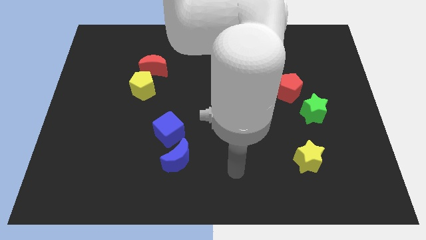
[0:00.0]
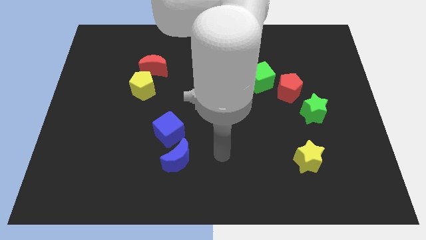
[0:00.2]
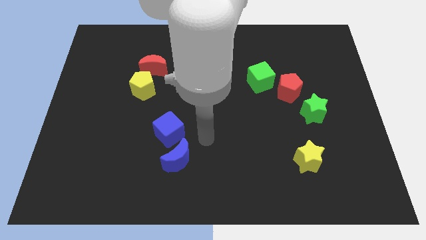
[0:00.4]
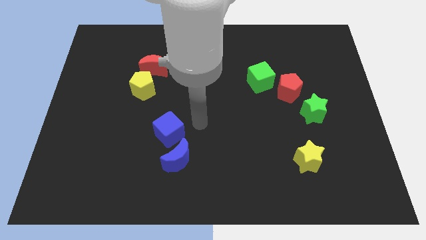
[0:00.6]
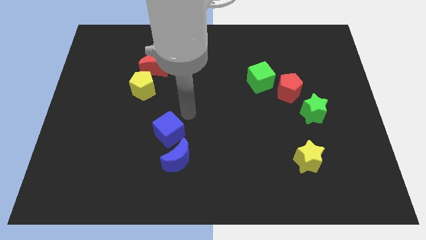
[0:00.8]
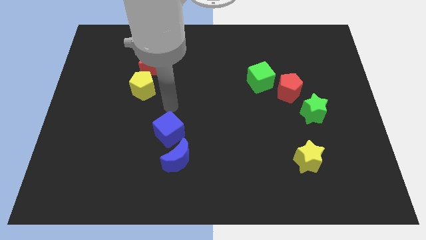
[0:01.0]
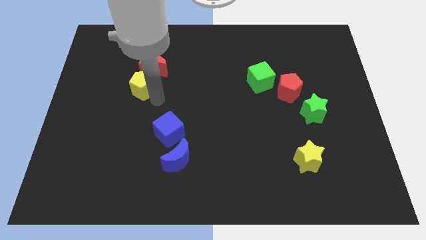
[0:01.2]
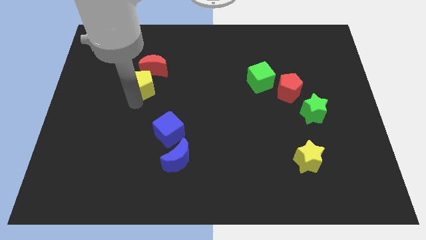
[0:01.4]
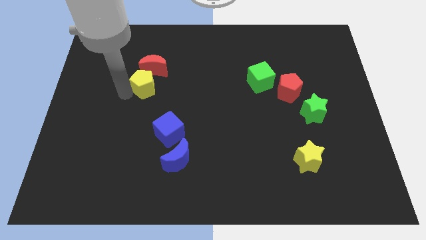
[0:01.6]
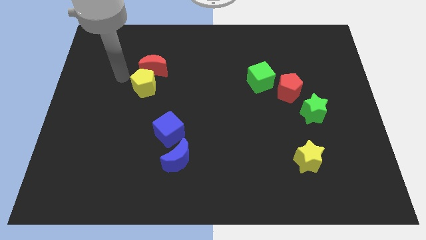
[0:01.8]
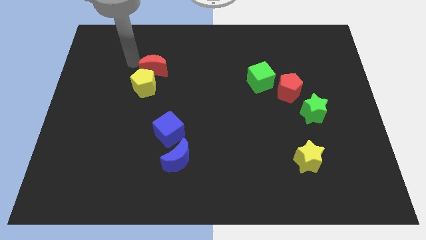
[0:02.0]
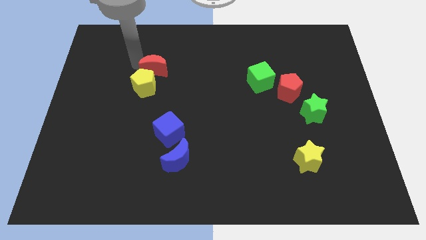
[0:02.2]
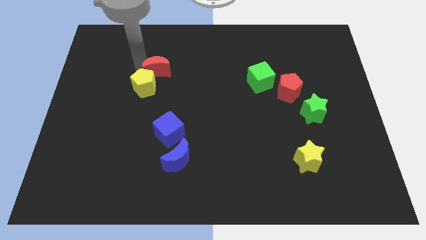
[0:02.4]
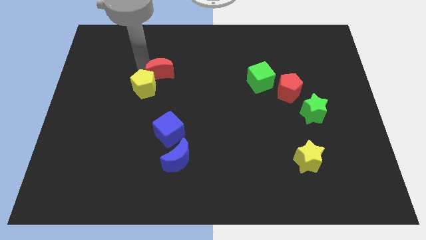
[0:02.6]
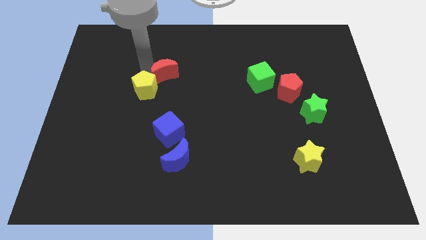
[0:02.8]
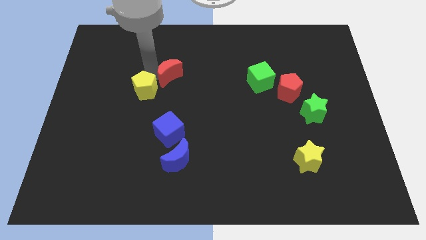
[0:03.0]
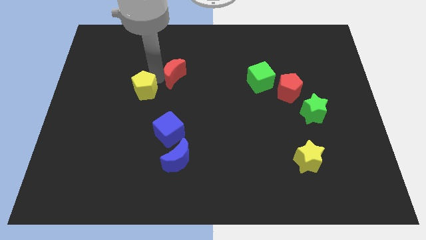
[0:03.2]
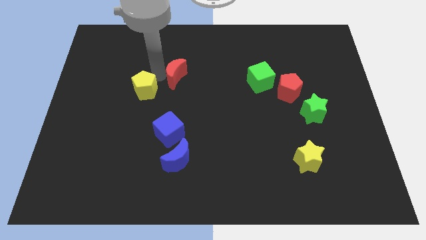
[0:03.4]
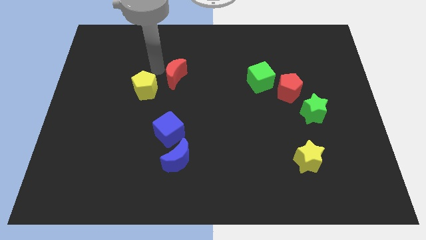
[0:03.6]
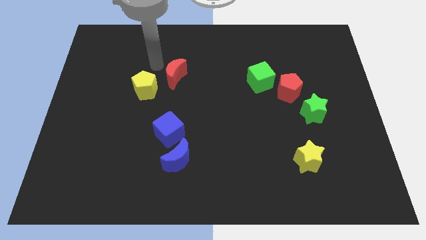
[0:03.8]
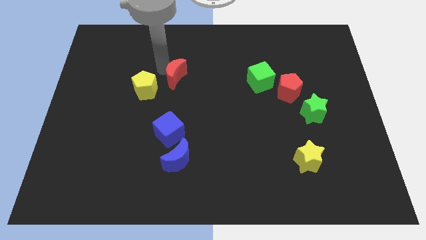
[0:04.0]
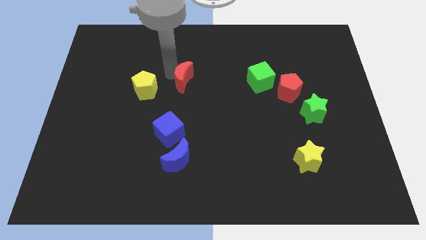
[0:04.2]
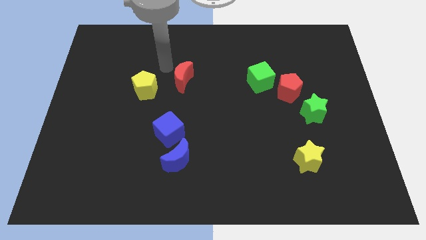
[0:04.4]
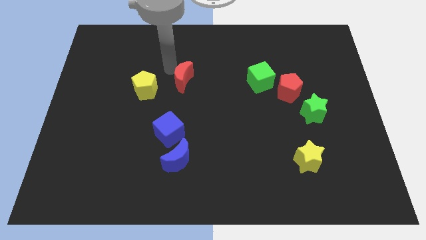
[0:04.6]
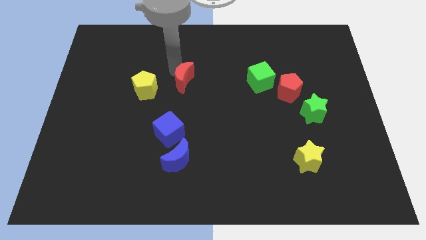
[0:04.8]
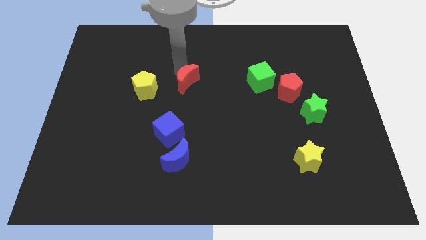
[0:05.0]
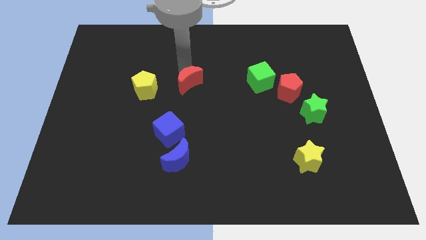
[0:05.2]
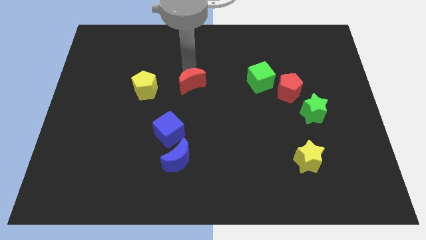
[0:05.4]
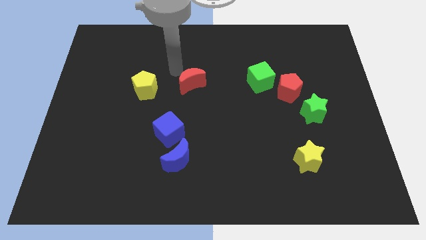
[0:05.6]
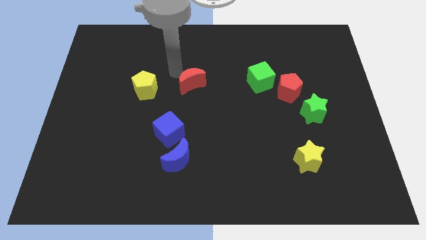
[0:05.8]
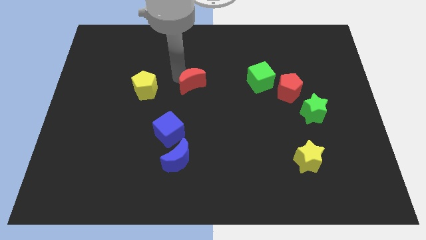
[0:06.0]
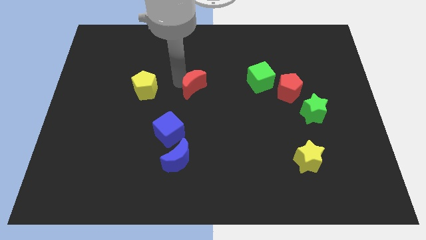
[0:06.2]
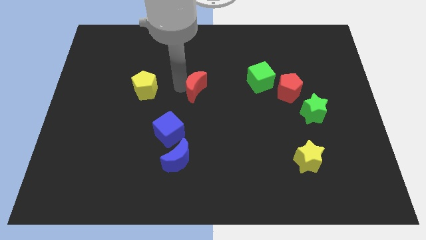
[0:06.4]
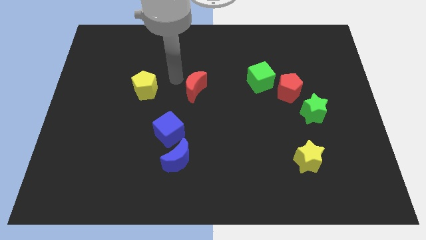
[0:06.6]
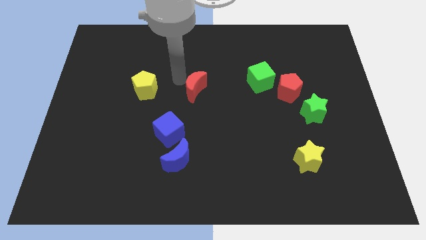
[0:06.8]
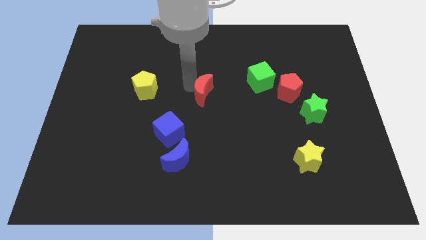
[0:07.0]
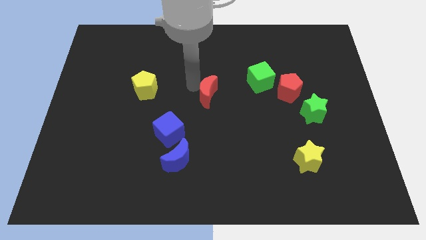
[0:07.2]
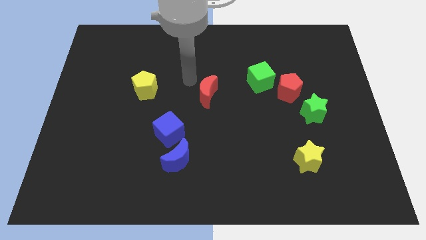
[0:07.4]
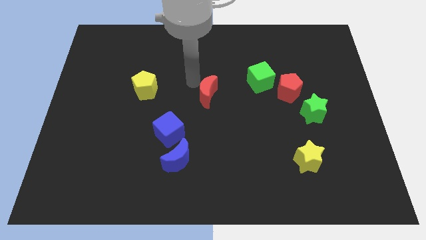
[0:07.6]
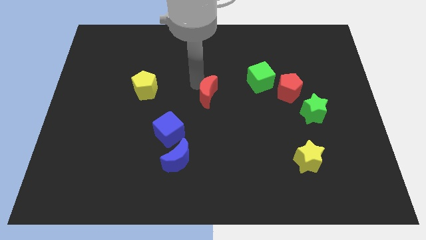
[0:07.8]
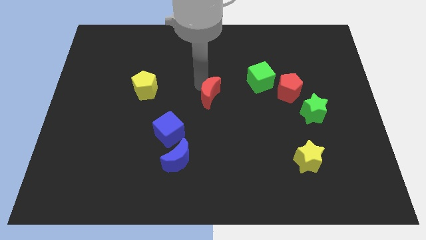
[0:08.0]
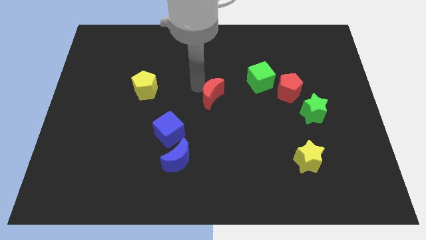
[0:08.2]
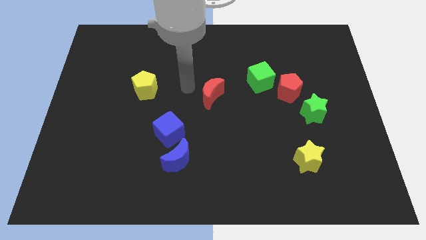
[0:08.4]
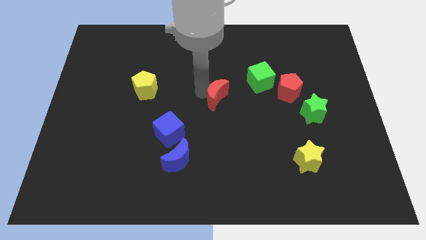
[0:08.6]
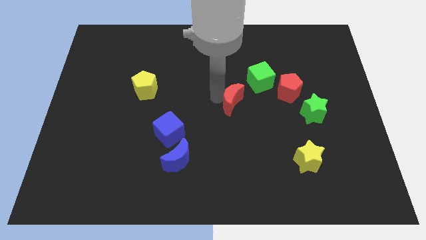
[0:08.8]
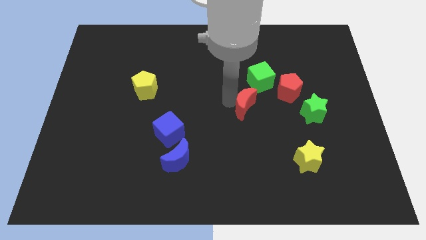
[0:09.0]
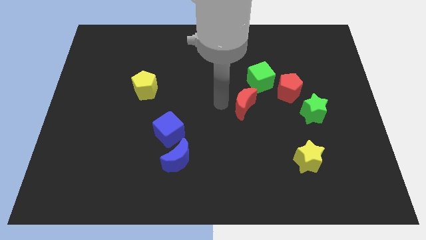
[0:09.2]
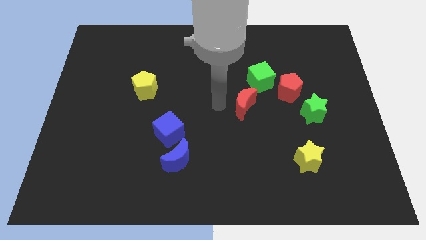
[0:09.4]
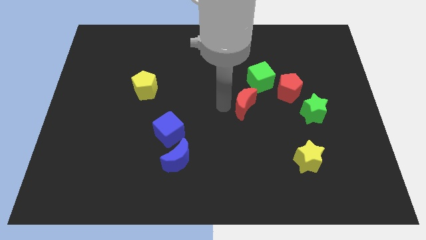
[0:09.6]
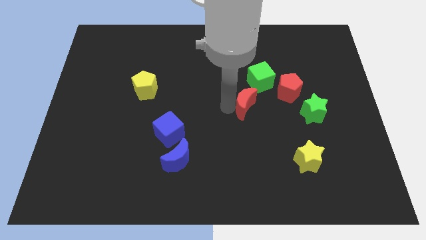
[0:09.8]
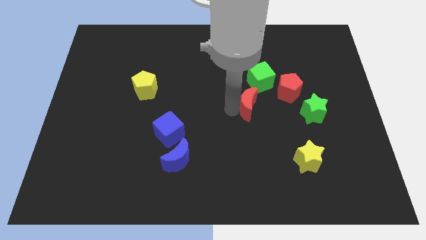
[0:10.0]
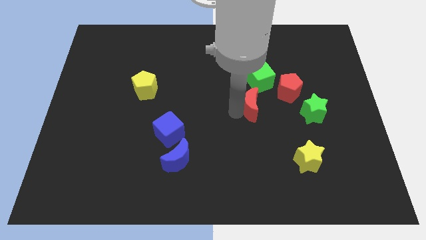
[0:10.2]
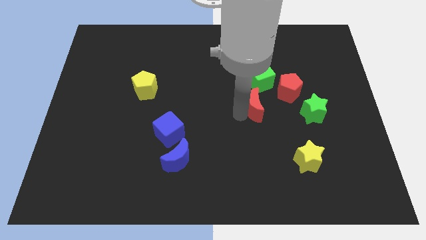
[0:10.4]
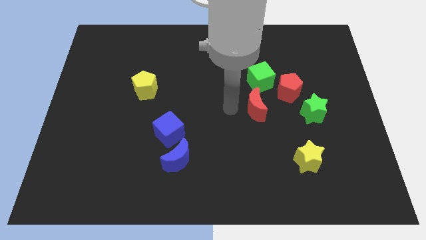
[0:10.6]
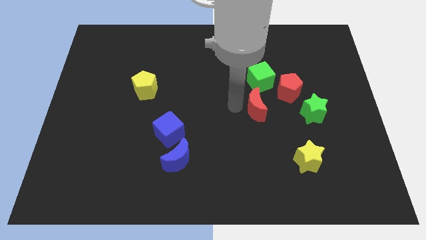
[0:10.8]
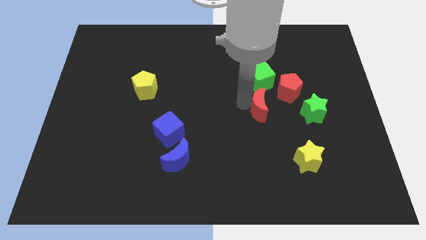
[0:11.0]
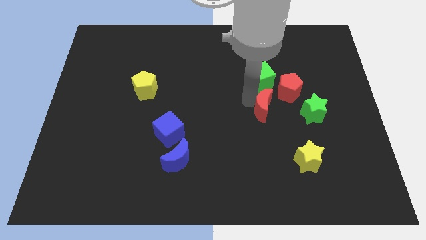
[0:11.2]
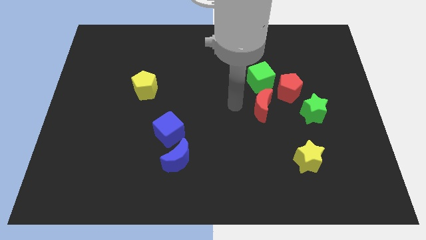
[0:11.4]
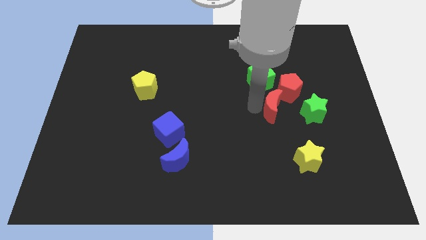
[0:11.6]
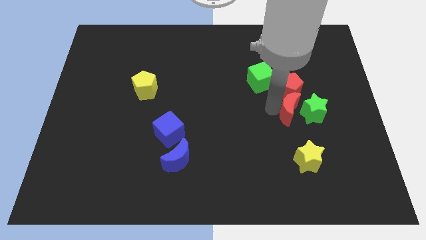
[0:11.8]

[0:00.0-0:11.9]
push the red moon towards the green star

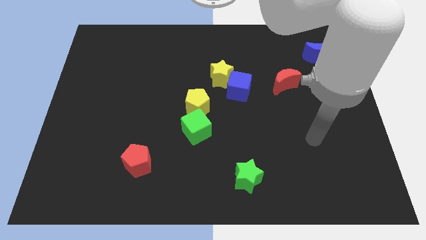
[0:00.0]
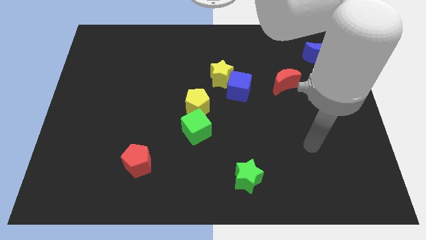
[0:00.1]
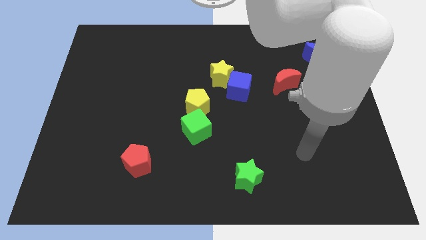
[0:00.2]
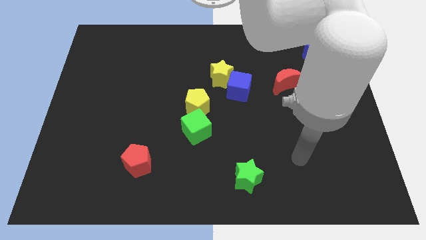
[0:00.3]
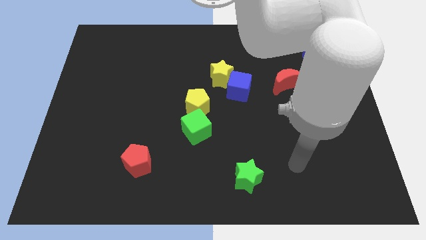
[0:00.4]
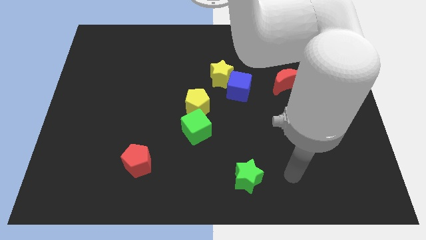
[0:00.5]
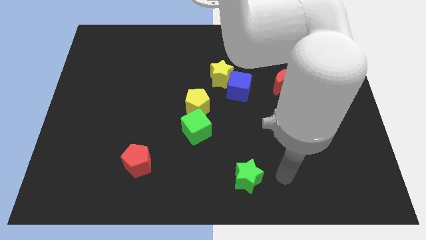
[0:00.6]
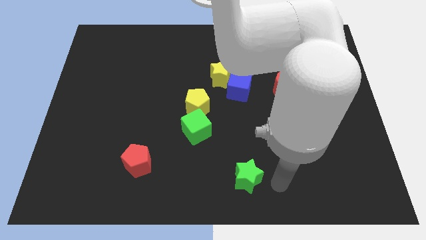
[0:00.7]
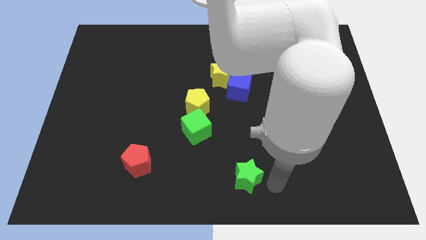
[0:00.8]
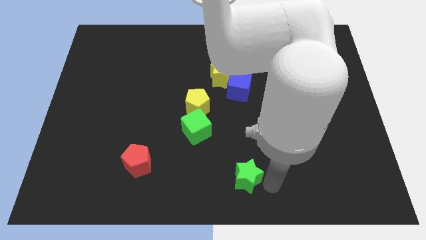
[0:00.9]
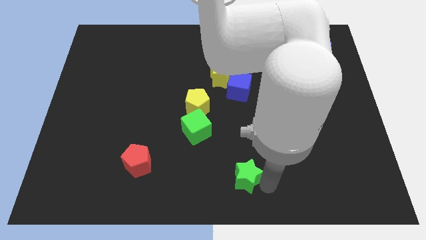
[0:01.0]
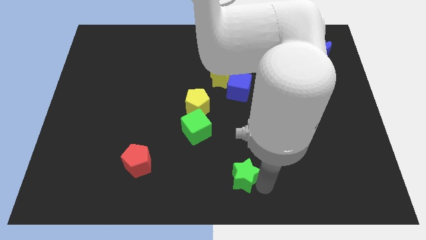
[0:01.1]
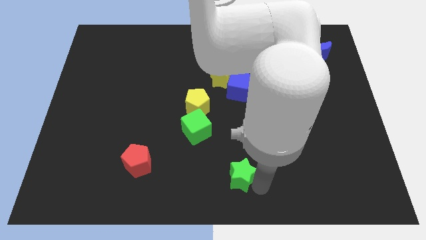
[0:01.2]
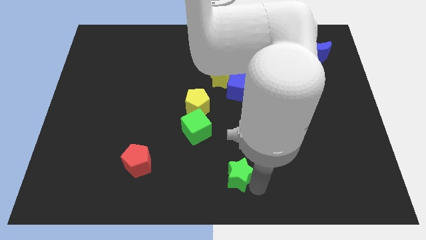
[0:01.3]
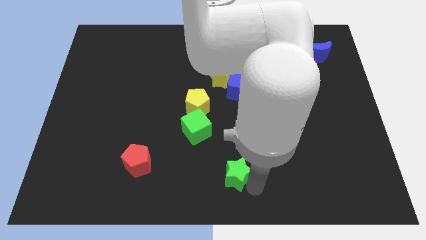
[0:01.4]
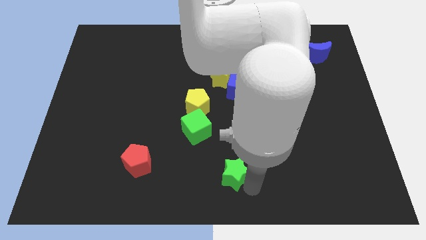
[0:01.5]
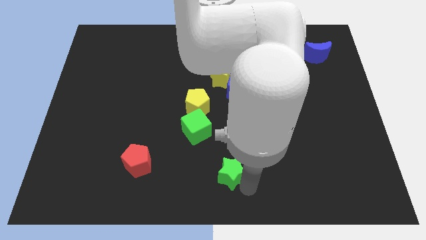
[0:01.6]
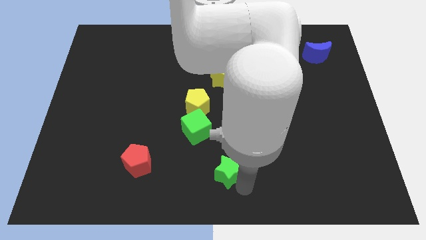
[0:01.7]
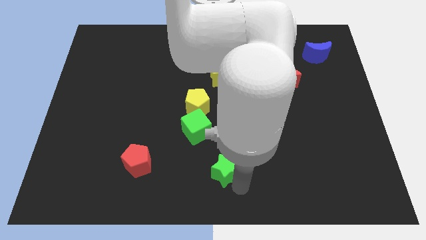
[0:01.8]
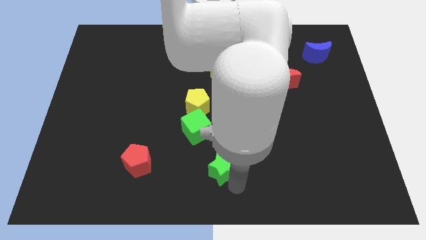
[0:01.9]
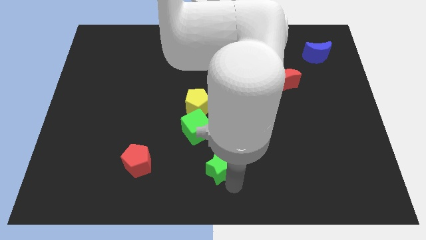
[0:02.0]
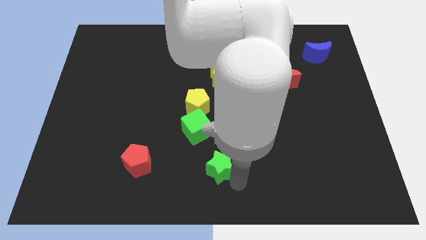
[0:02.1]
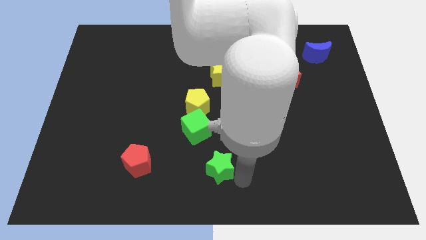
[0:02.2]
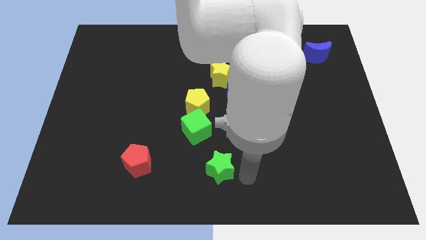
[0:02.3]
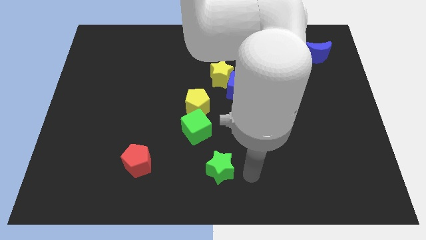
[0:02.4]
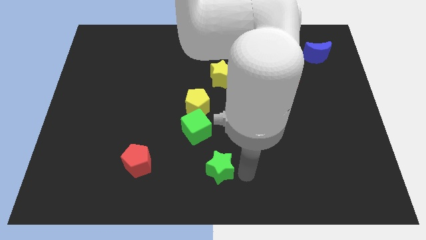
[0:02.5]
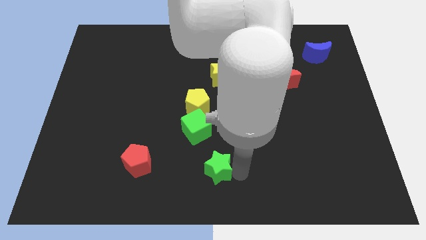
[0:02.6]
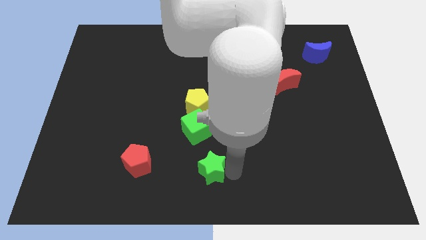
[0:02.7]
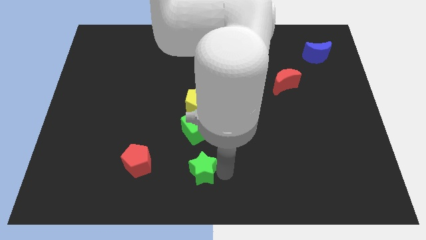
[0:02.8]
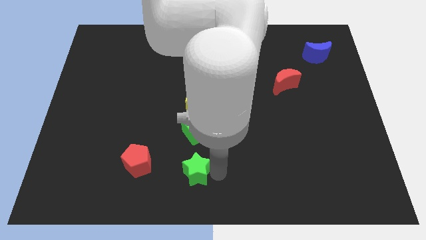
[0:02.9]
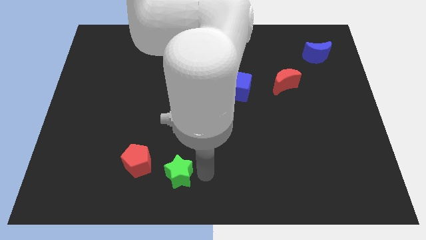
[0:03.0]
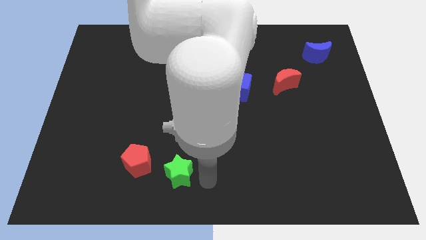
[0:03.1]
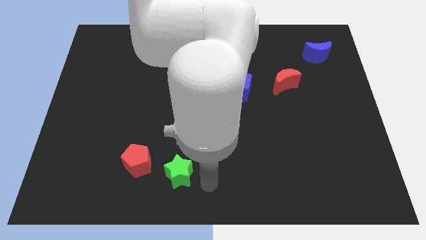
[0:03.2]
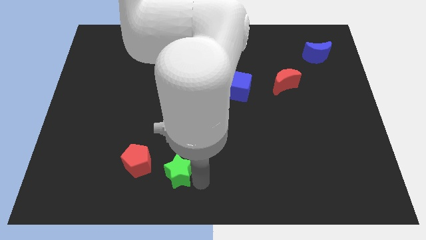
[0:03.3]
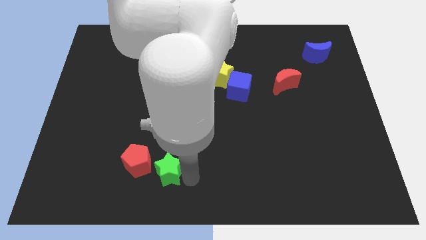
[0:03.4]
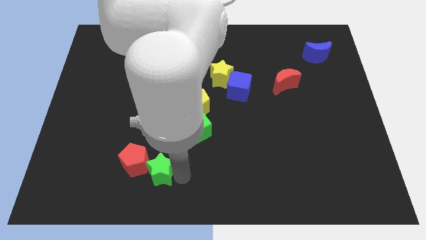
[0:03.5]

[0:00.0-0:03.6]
move the green star next to the red pentagon
